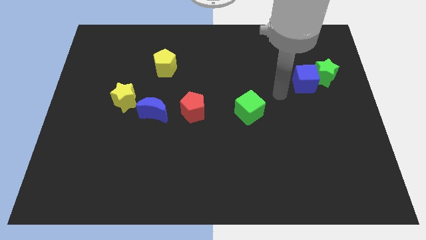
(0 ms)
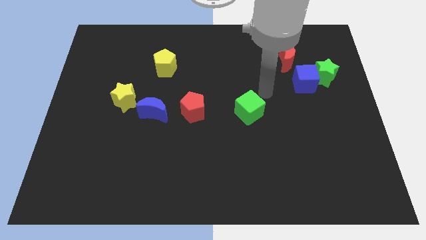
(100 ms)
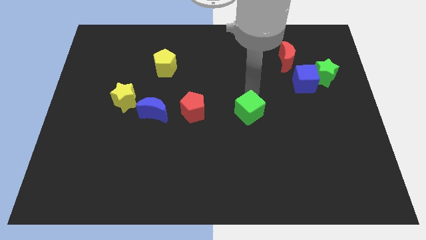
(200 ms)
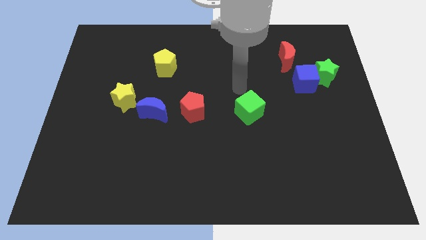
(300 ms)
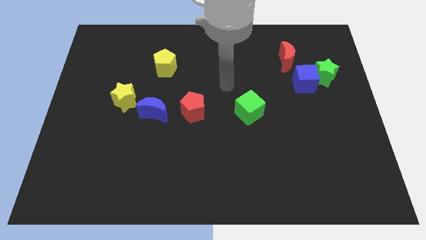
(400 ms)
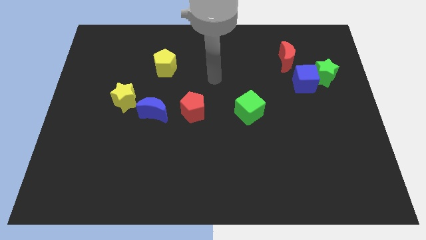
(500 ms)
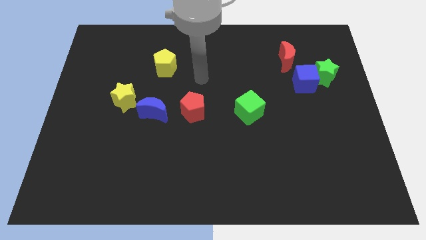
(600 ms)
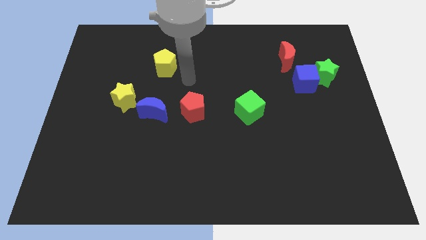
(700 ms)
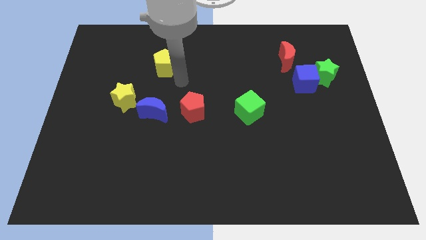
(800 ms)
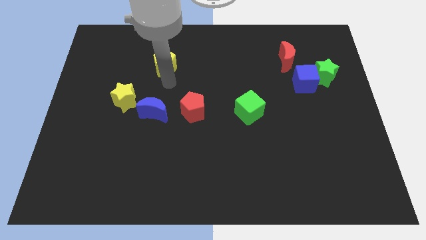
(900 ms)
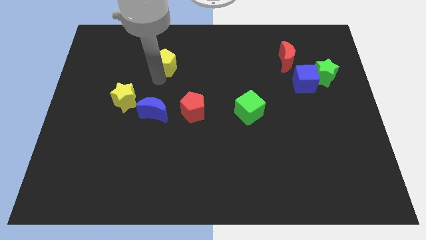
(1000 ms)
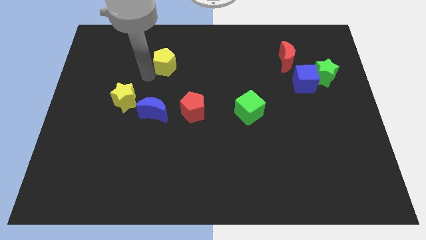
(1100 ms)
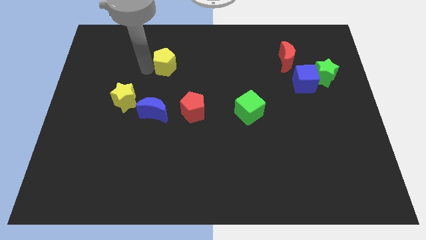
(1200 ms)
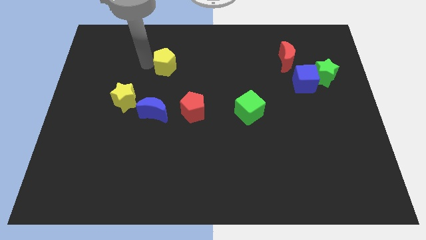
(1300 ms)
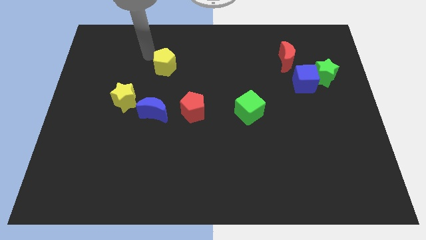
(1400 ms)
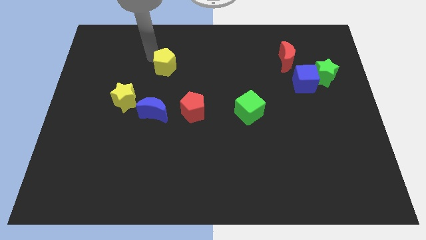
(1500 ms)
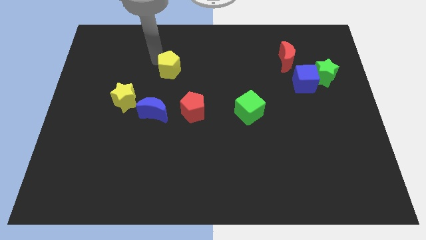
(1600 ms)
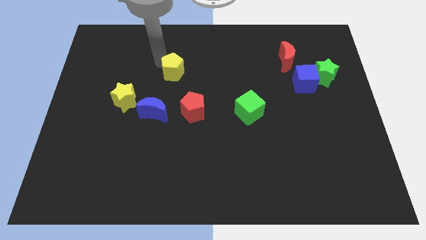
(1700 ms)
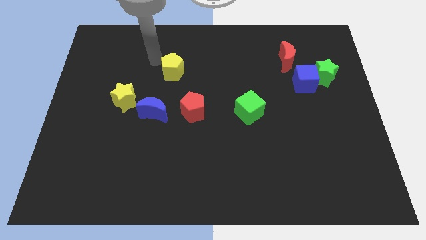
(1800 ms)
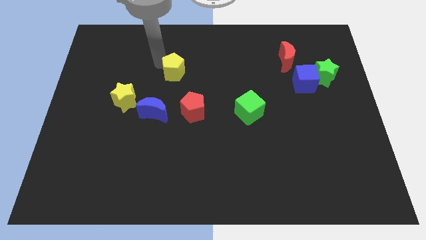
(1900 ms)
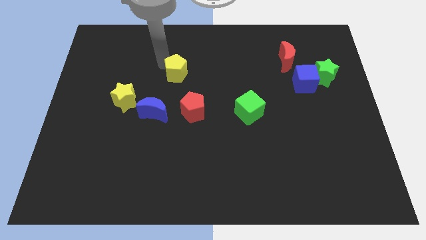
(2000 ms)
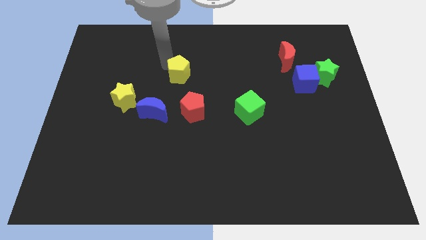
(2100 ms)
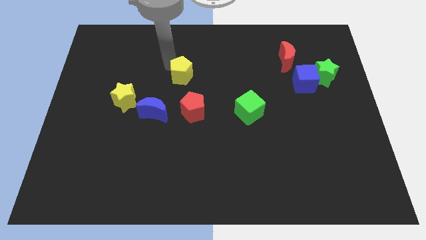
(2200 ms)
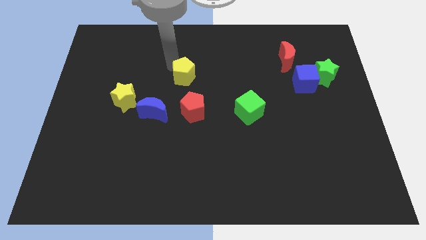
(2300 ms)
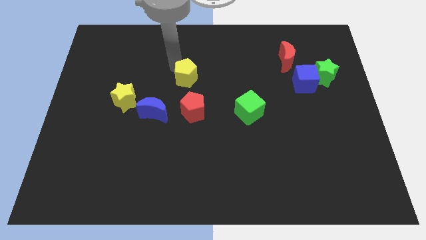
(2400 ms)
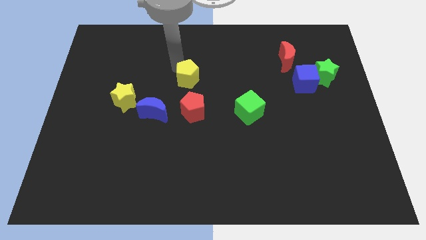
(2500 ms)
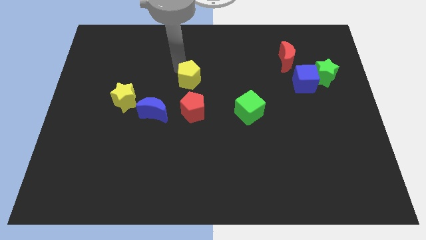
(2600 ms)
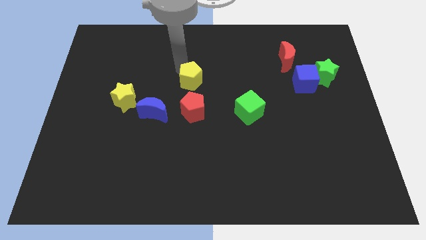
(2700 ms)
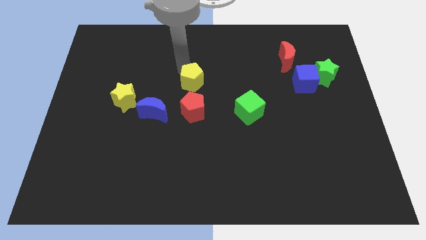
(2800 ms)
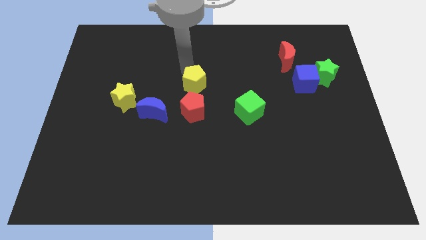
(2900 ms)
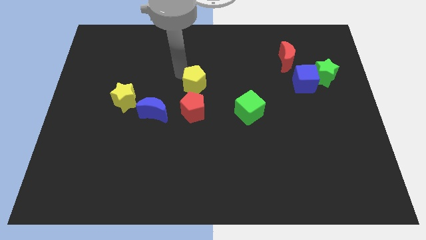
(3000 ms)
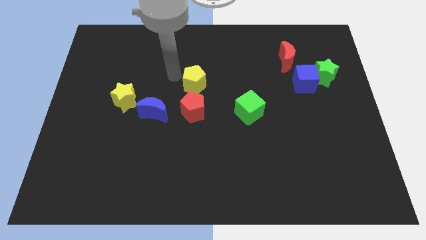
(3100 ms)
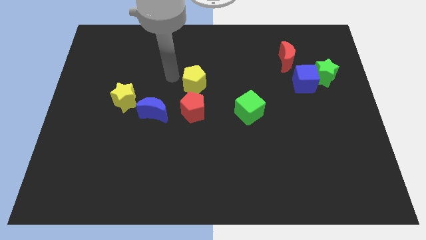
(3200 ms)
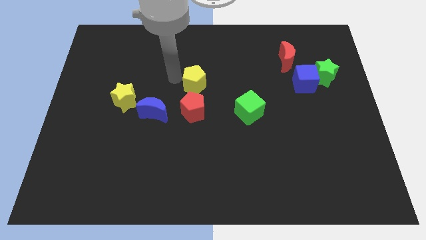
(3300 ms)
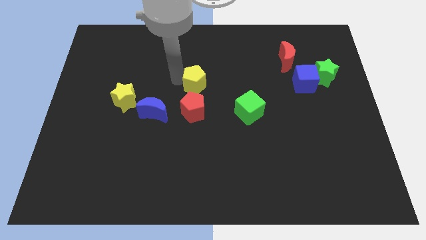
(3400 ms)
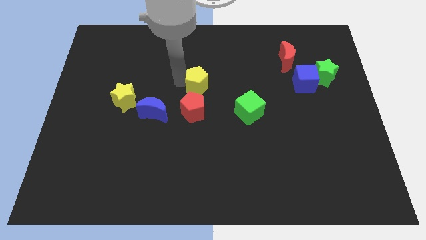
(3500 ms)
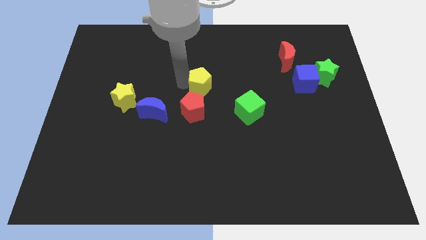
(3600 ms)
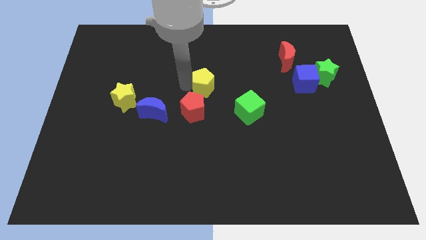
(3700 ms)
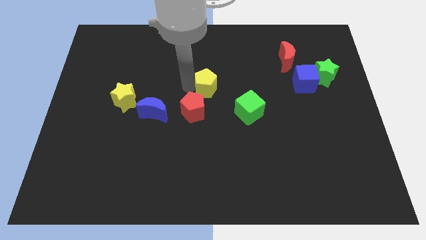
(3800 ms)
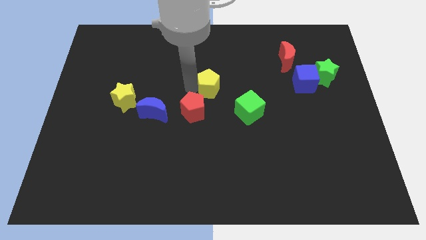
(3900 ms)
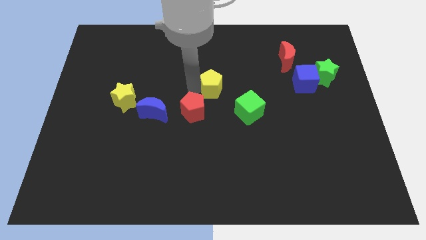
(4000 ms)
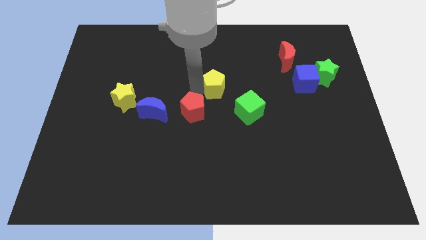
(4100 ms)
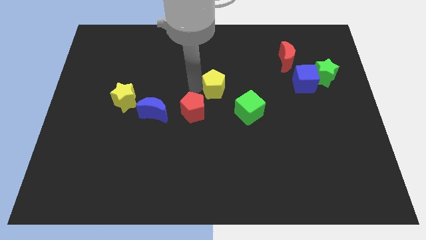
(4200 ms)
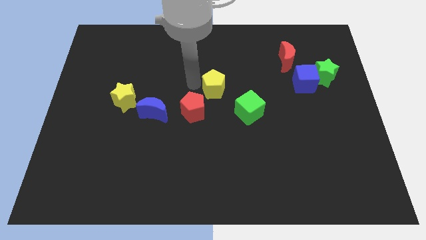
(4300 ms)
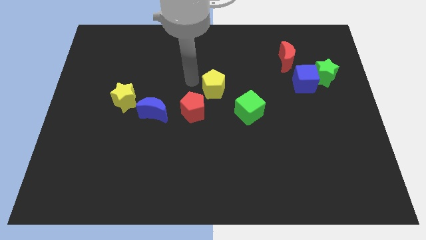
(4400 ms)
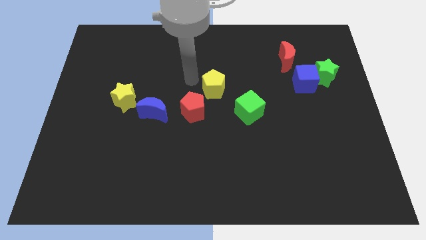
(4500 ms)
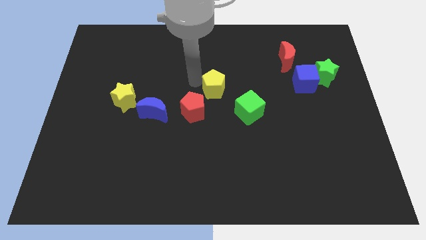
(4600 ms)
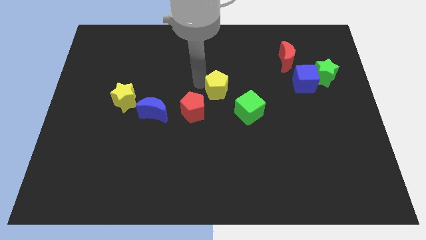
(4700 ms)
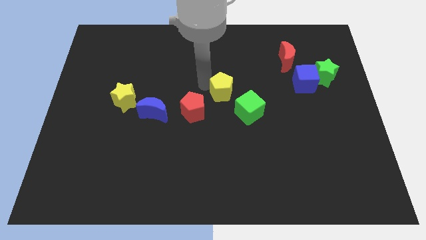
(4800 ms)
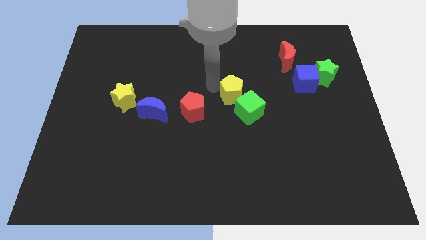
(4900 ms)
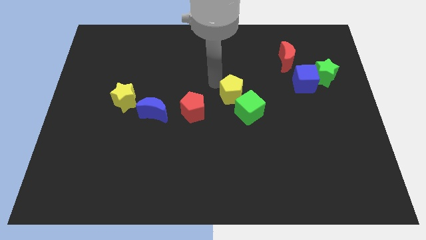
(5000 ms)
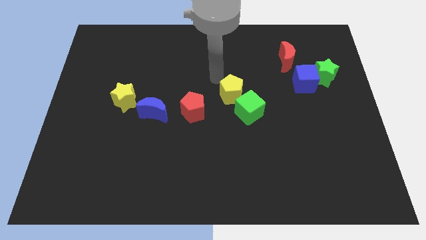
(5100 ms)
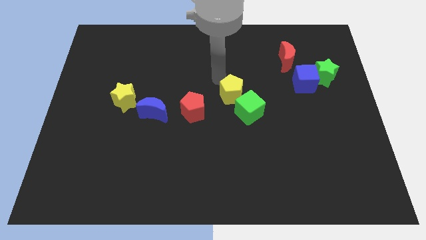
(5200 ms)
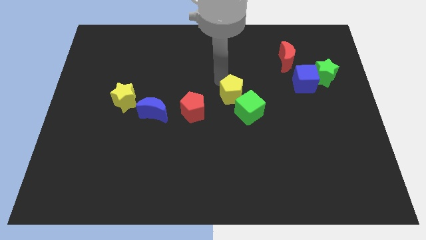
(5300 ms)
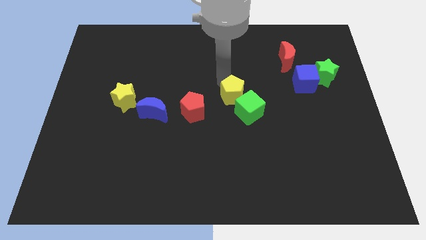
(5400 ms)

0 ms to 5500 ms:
put the yellow pentagon to the green cube

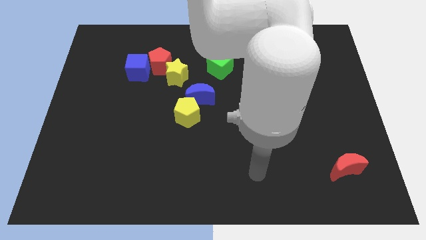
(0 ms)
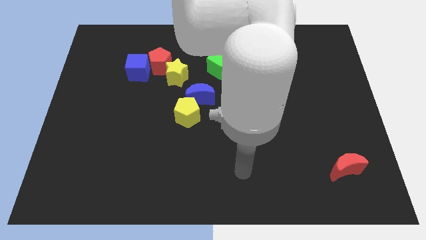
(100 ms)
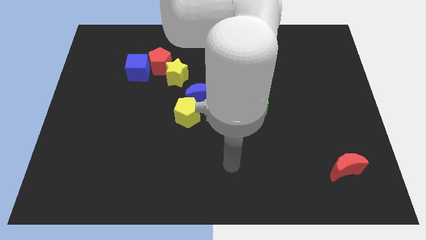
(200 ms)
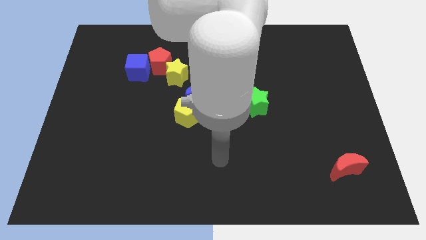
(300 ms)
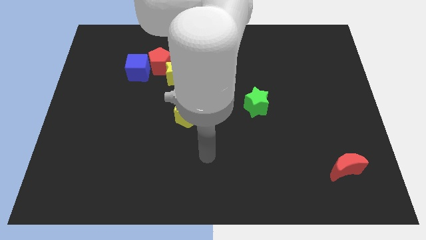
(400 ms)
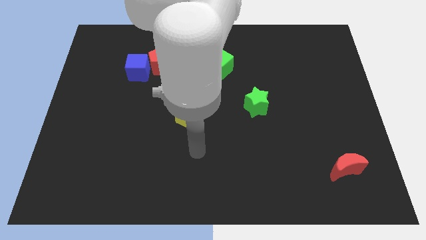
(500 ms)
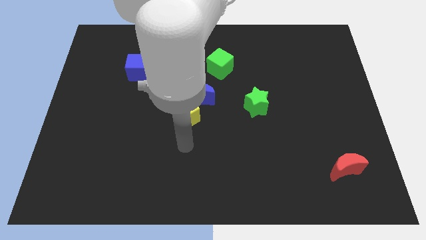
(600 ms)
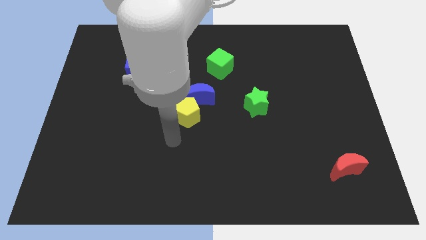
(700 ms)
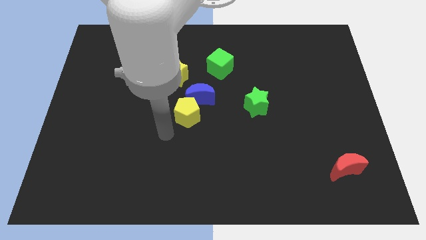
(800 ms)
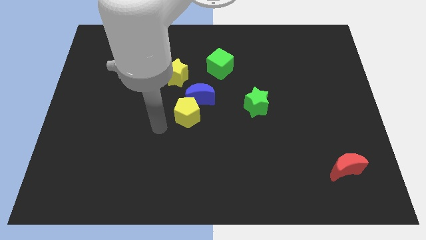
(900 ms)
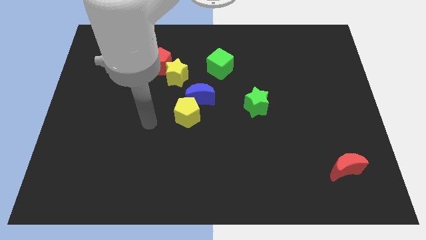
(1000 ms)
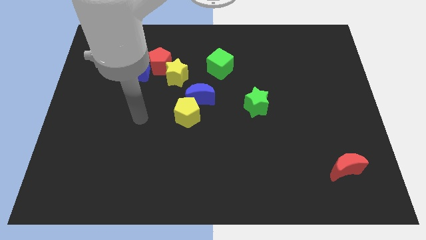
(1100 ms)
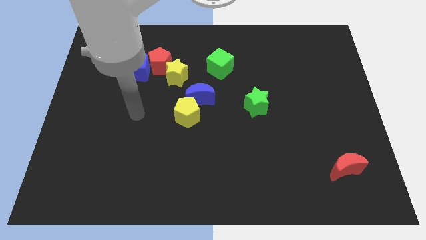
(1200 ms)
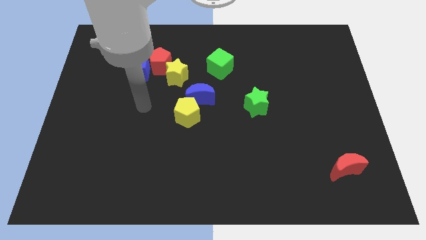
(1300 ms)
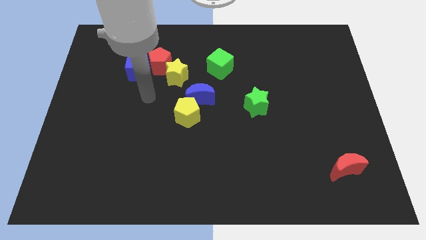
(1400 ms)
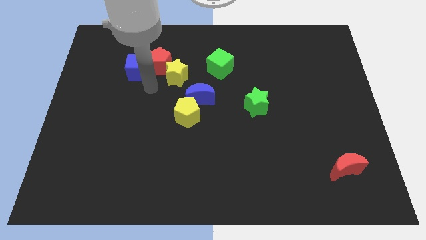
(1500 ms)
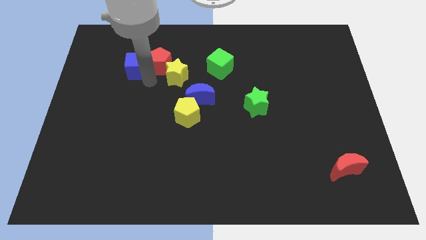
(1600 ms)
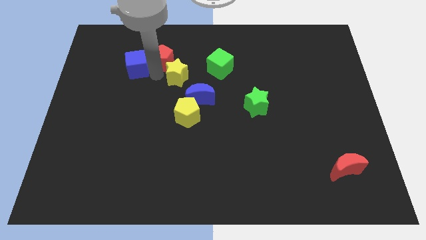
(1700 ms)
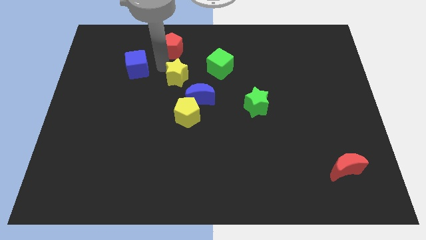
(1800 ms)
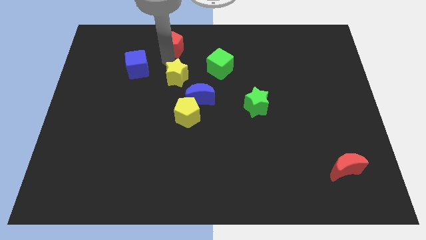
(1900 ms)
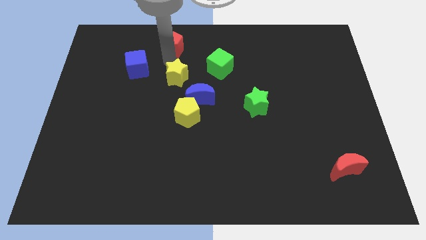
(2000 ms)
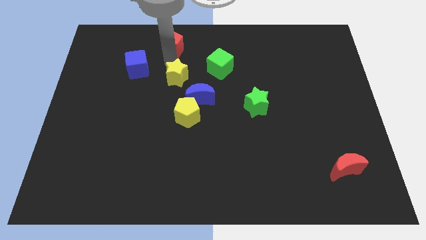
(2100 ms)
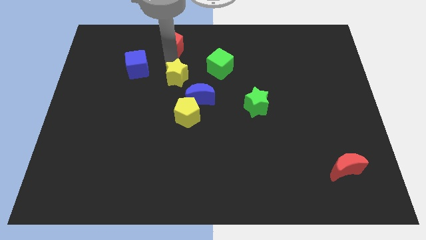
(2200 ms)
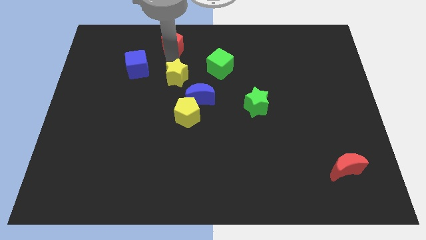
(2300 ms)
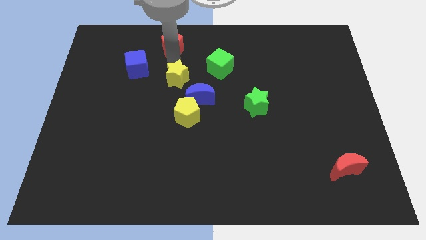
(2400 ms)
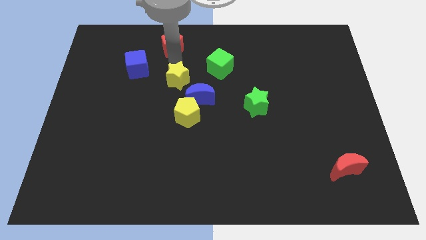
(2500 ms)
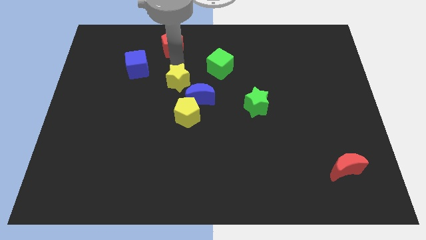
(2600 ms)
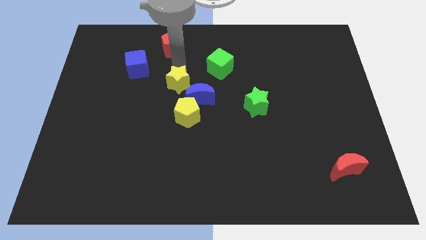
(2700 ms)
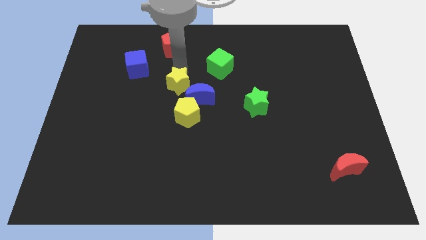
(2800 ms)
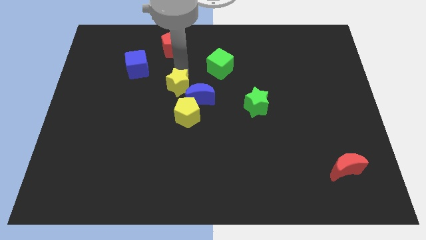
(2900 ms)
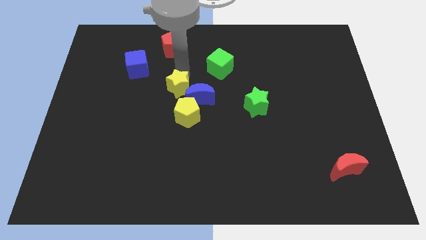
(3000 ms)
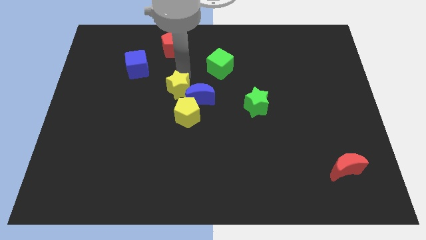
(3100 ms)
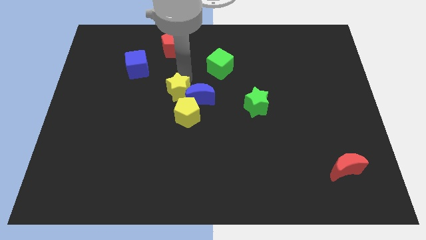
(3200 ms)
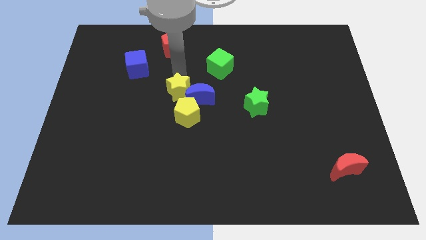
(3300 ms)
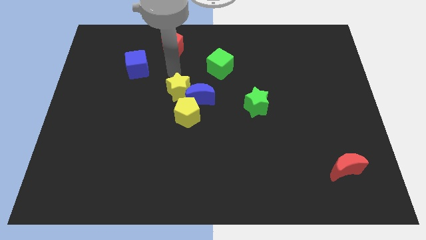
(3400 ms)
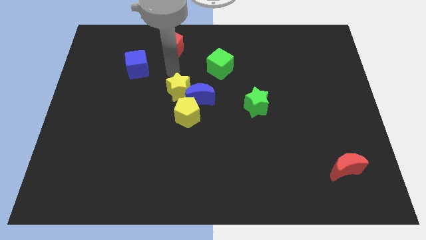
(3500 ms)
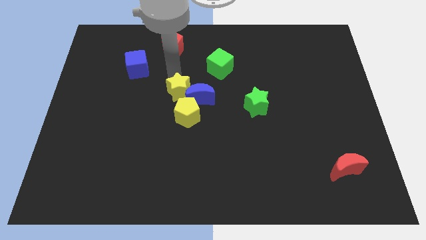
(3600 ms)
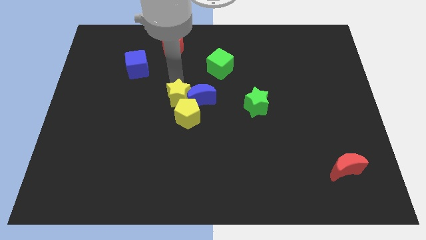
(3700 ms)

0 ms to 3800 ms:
push the yellow star towards the yellow pentagon
